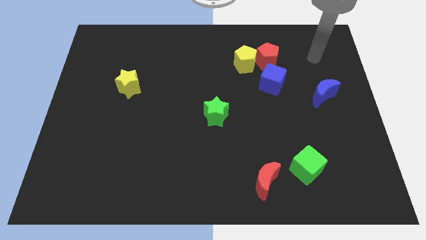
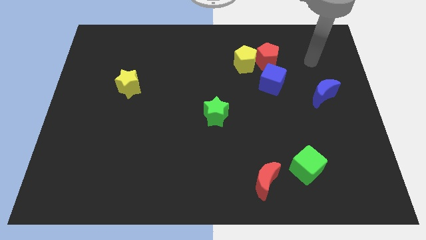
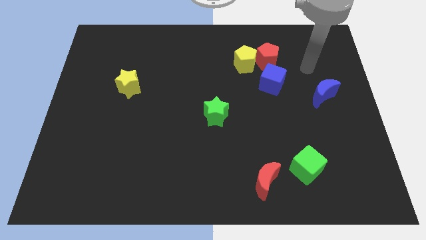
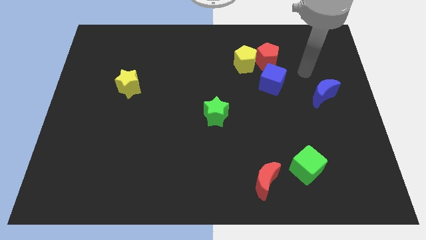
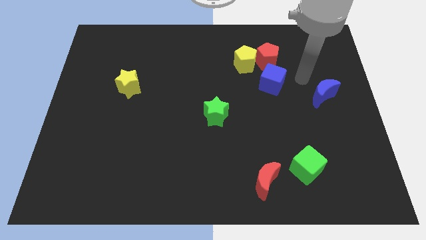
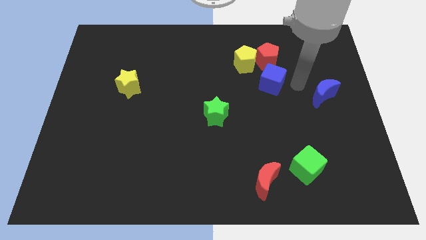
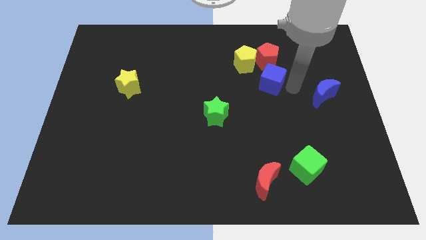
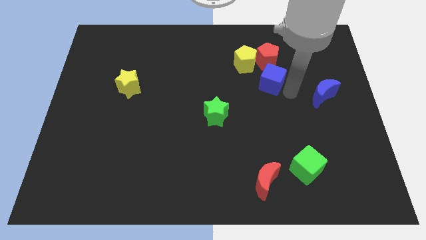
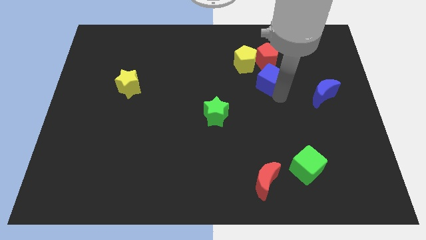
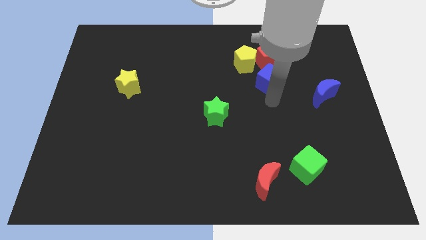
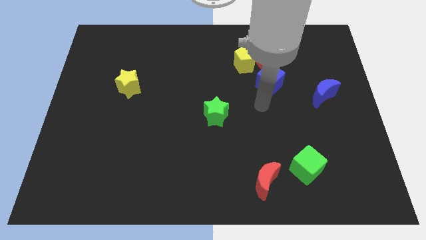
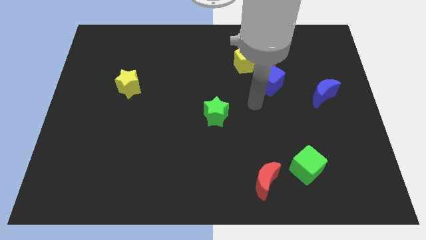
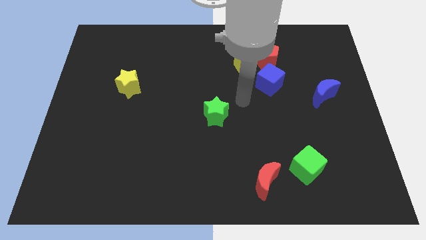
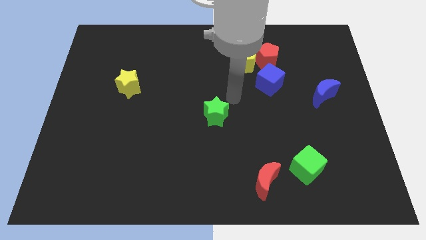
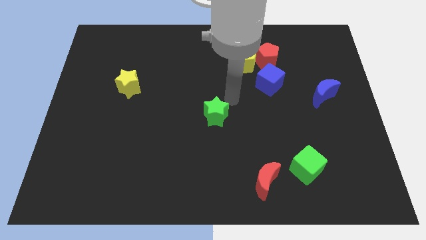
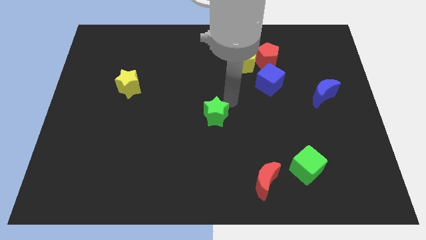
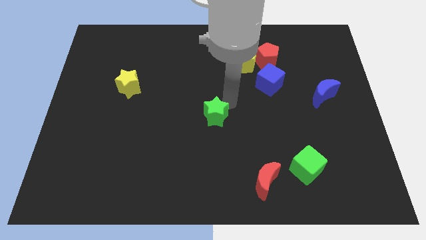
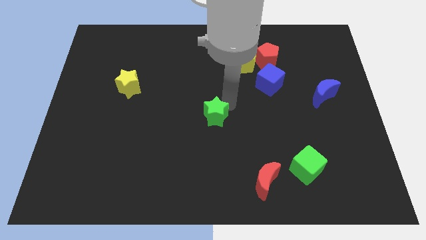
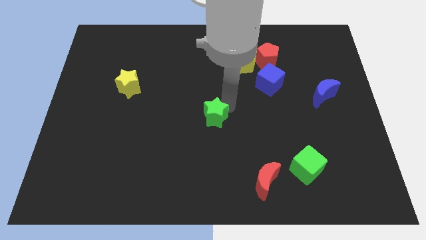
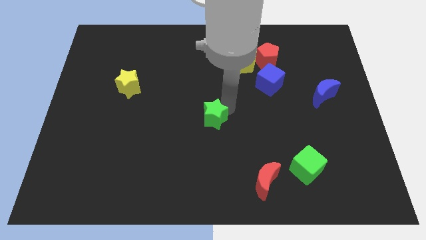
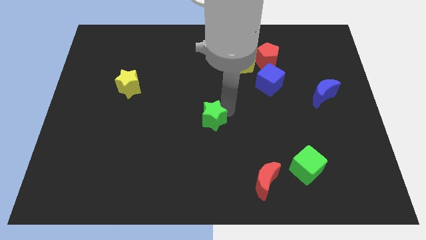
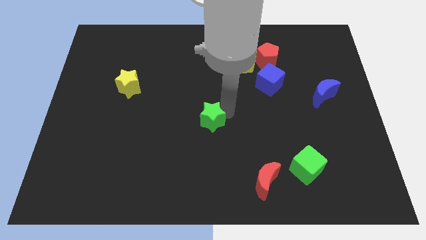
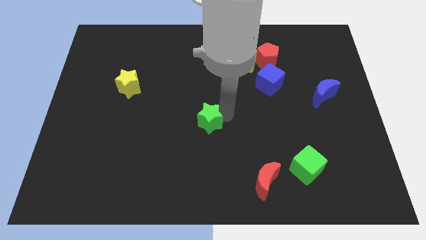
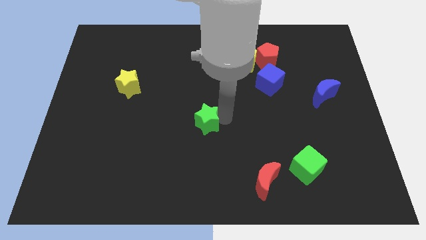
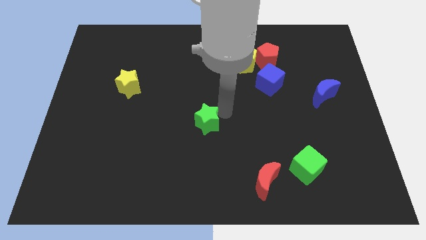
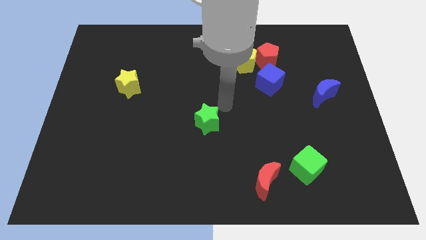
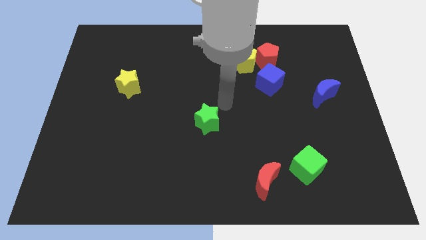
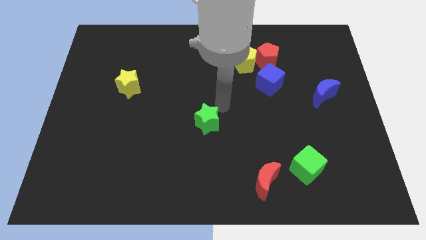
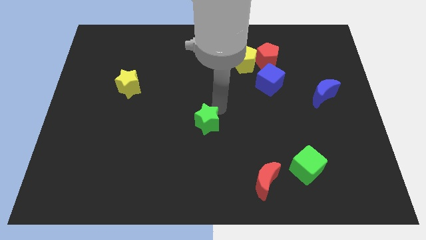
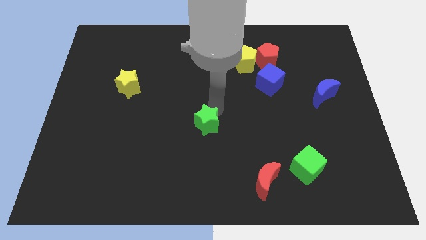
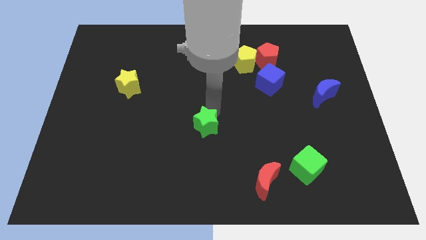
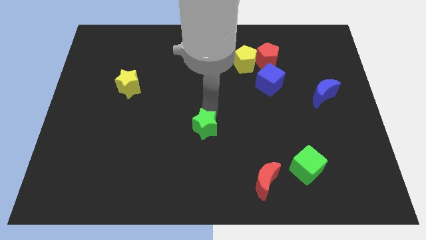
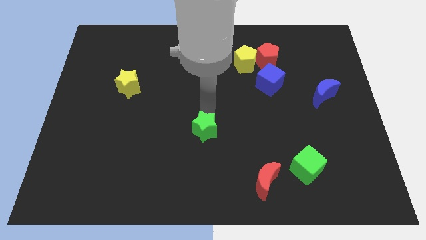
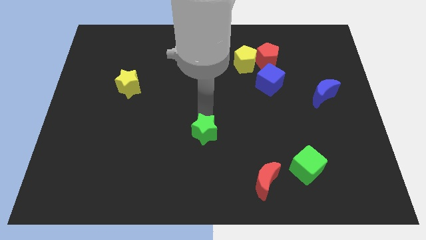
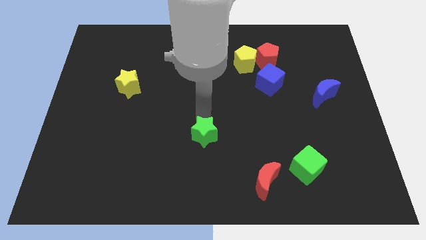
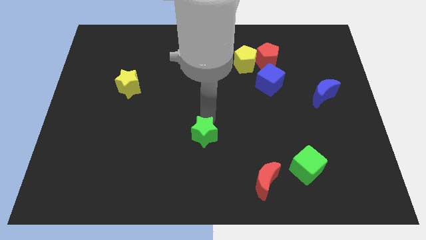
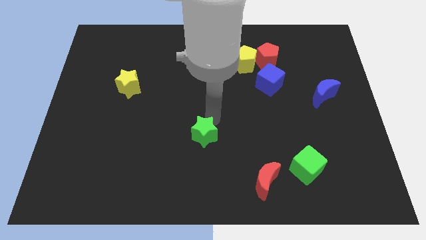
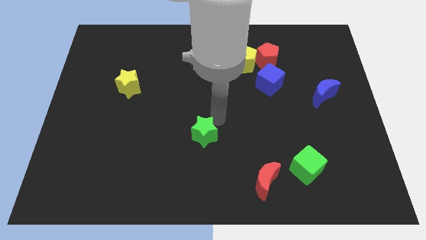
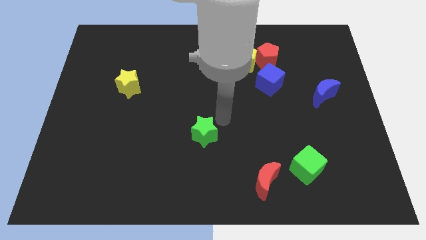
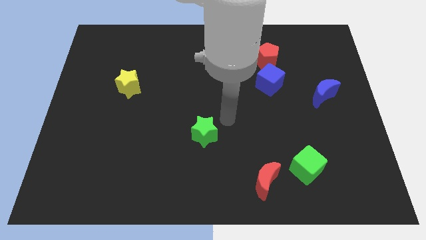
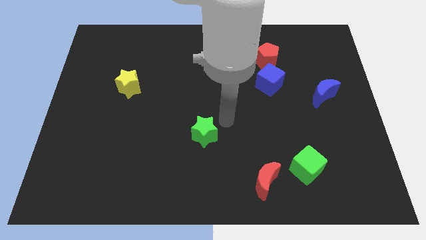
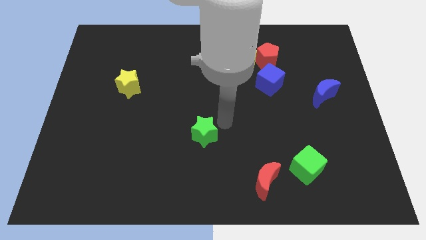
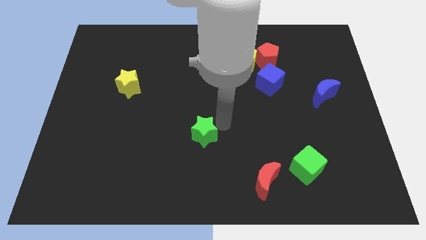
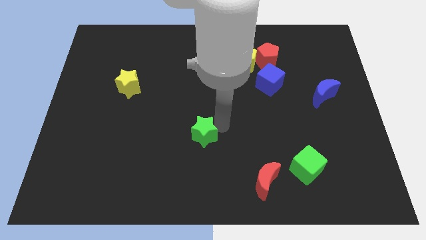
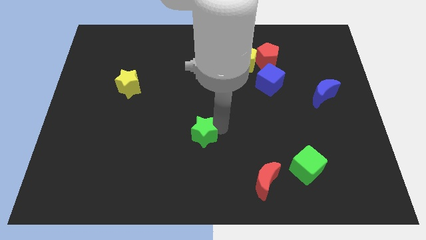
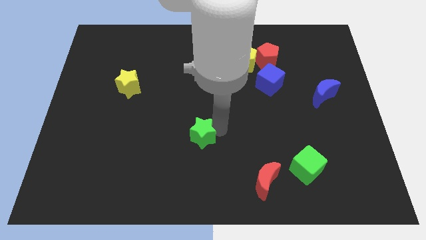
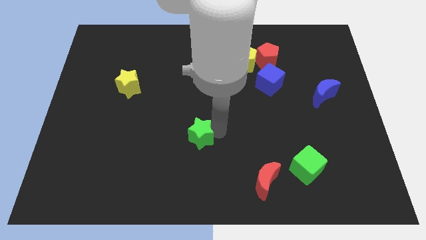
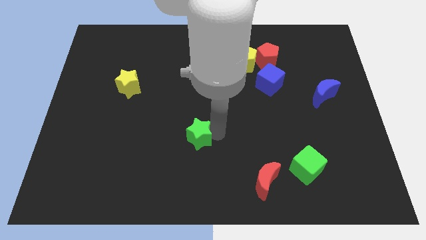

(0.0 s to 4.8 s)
slightly move the green star diagonally downwards and to the left

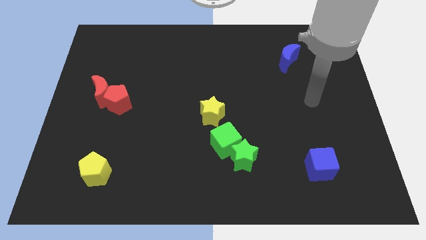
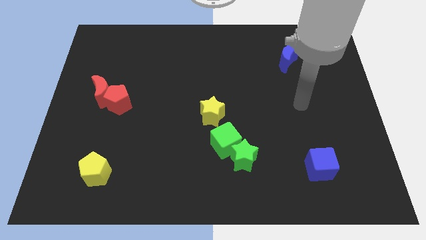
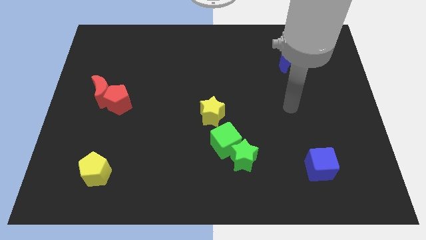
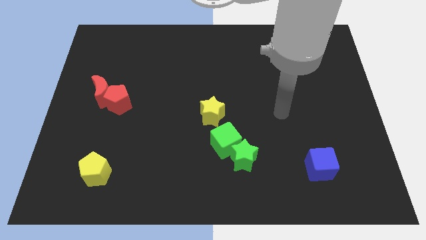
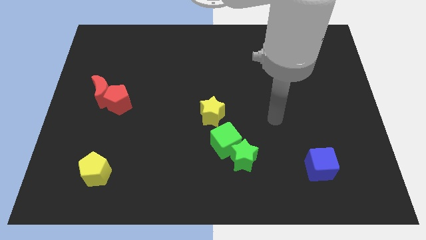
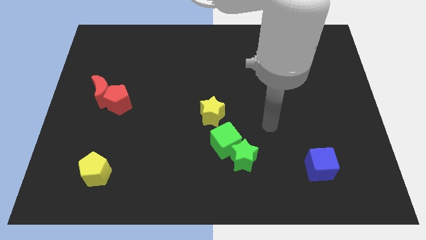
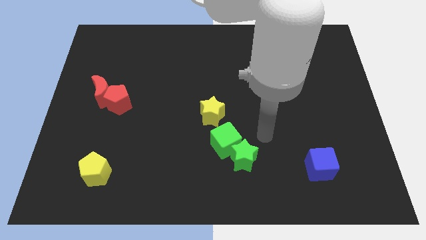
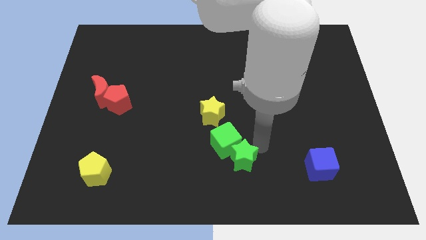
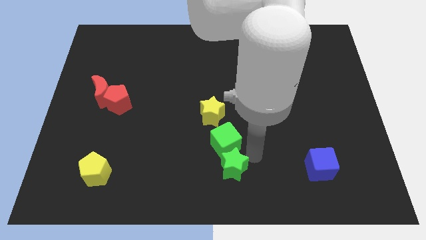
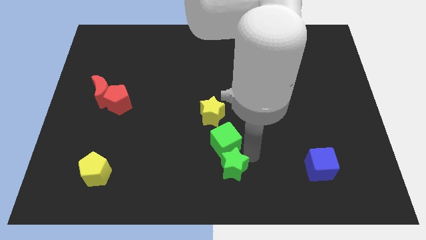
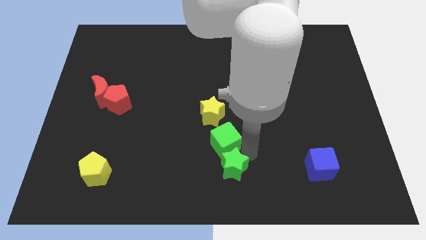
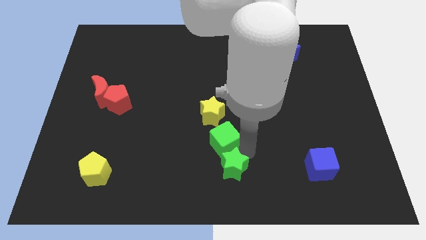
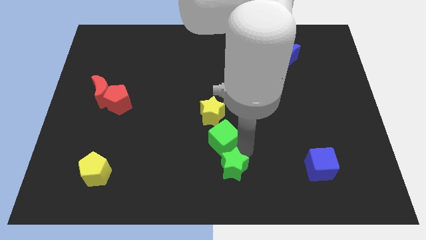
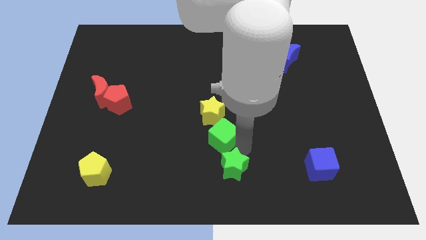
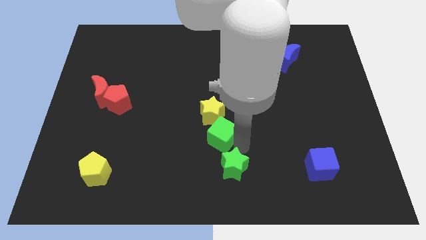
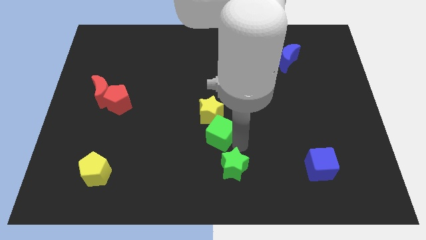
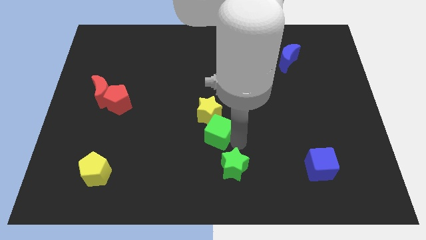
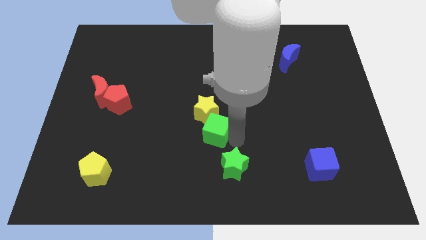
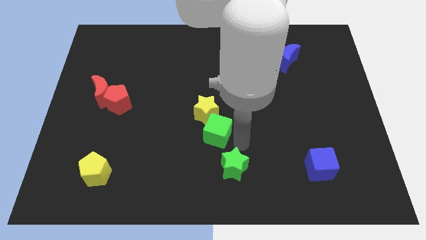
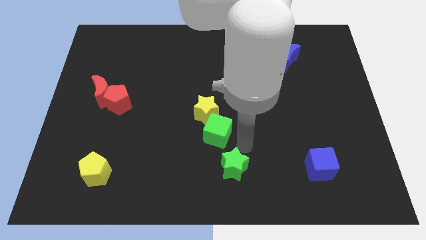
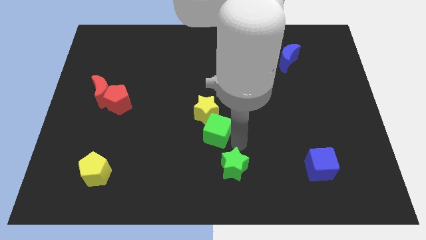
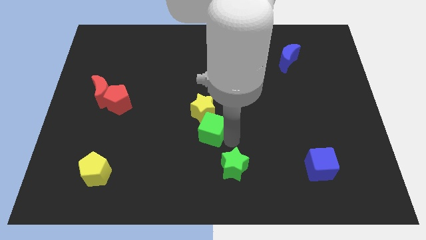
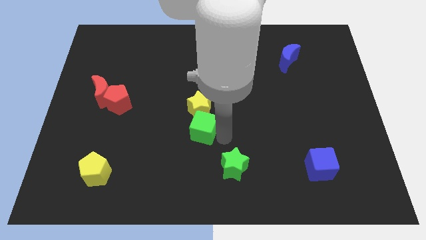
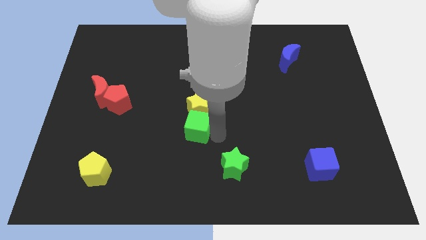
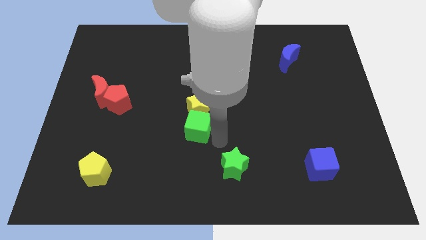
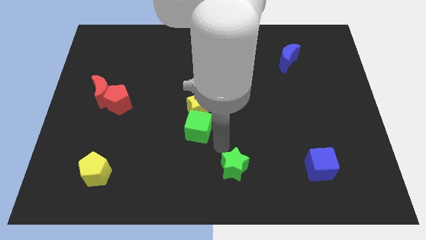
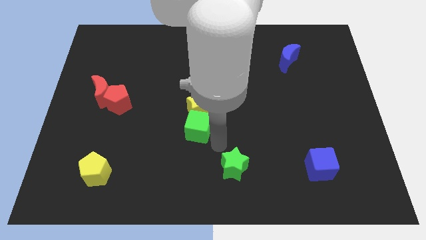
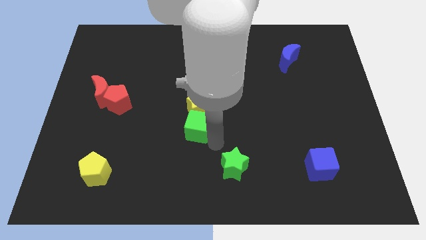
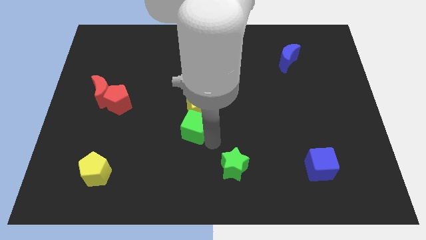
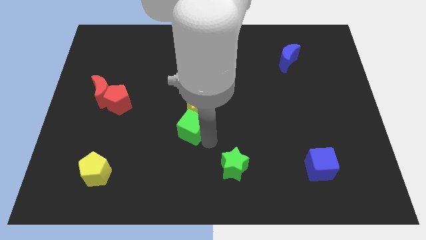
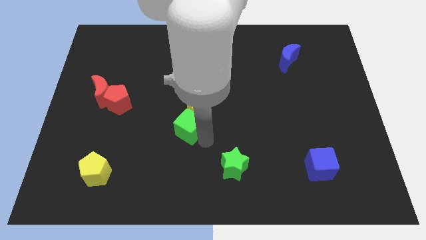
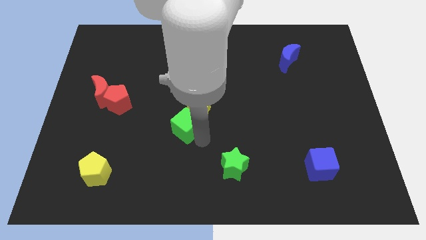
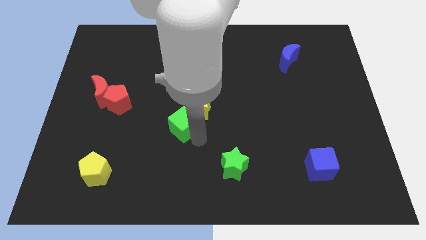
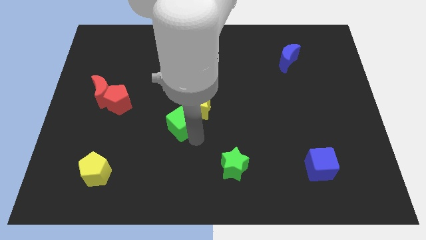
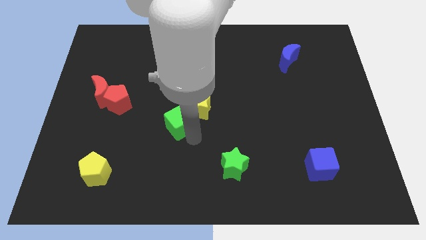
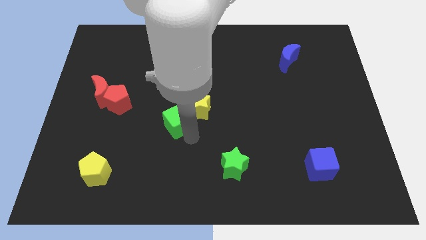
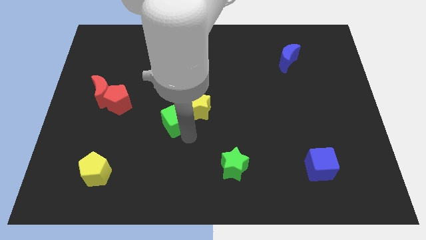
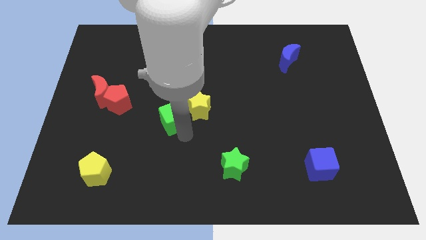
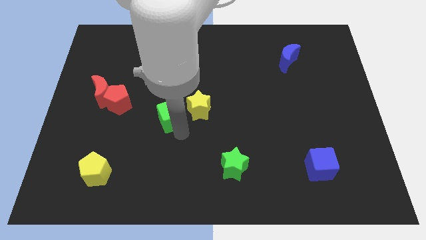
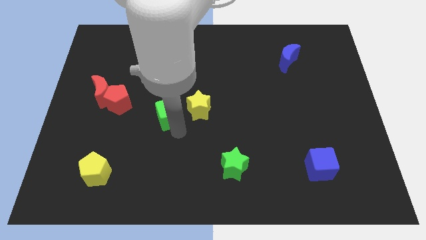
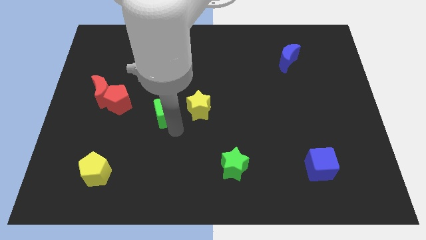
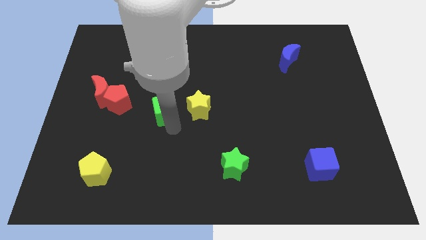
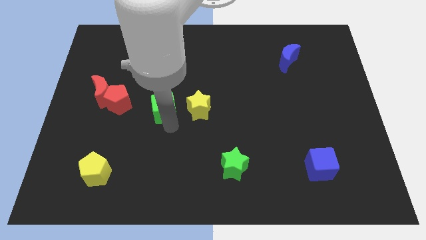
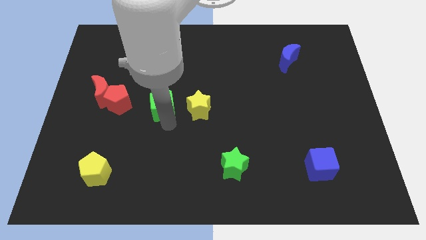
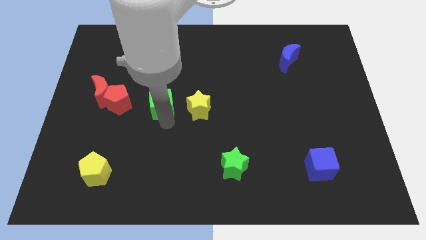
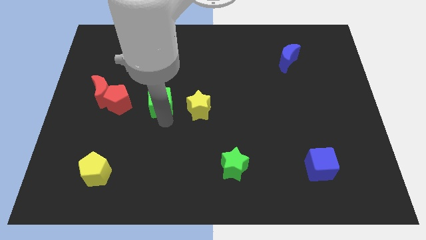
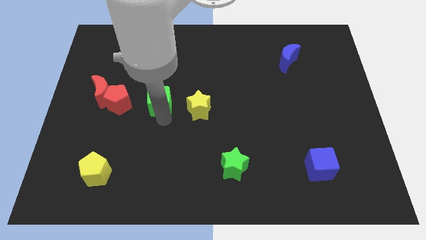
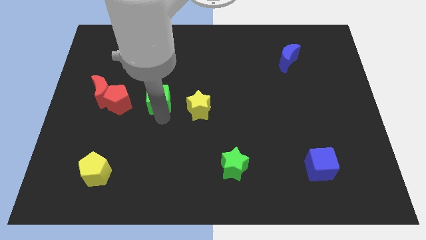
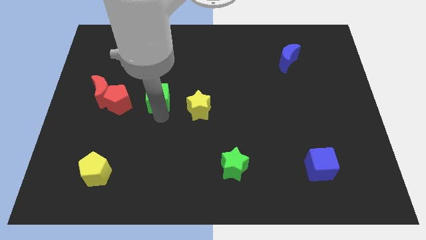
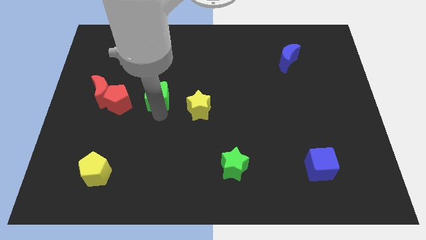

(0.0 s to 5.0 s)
move the green cube upwards and left
